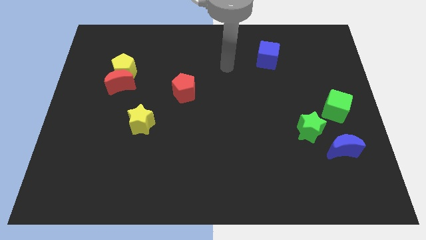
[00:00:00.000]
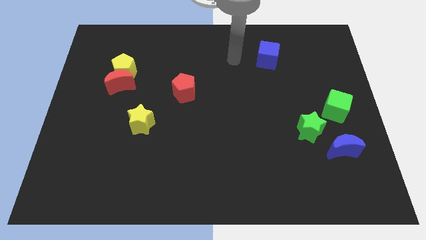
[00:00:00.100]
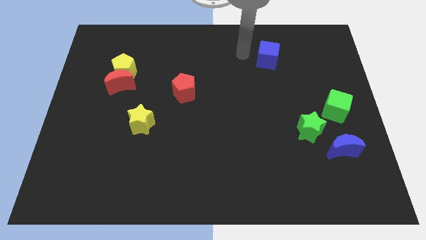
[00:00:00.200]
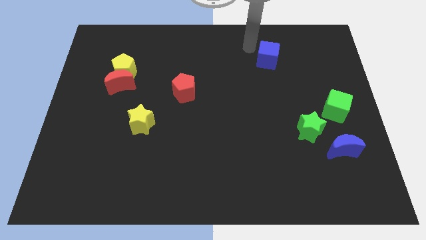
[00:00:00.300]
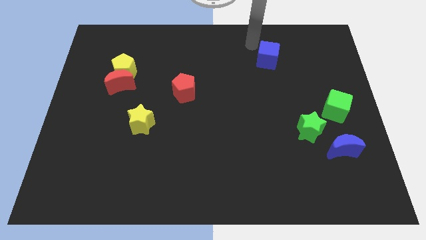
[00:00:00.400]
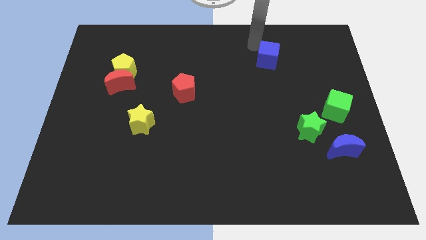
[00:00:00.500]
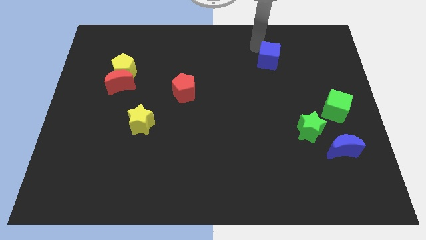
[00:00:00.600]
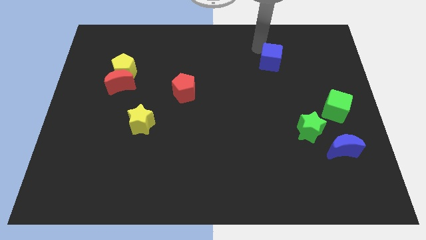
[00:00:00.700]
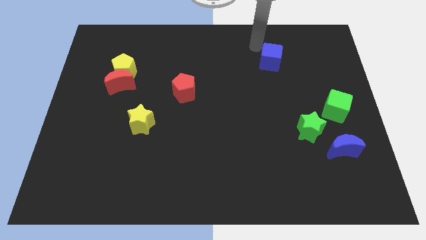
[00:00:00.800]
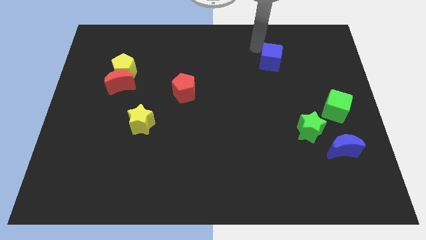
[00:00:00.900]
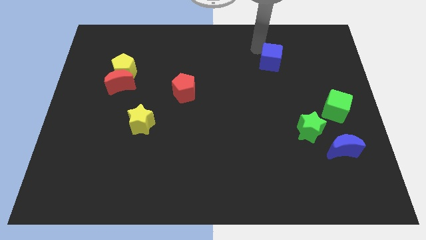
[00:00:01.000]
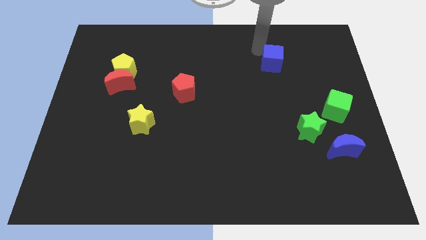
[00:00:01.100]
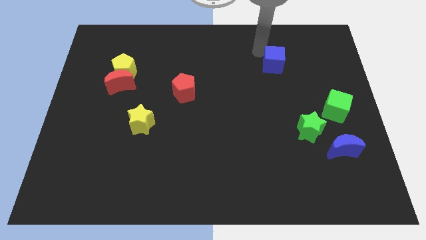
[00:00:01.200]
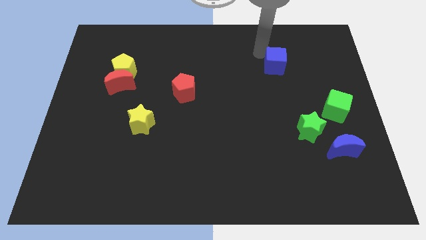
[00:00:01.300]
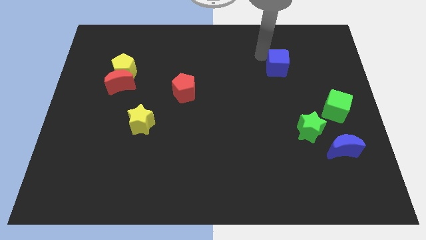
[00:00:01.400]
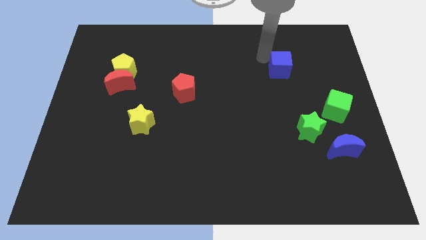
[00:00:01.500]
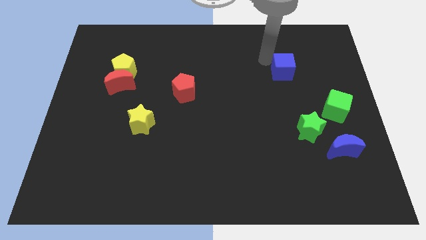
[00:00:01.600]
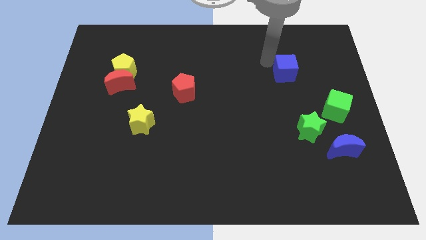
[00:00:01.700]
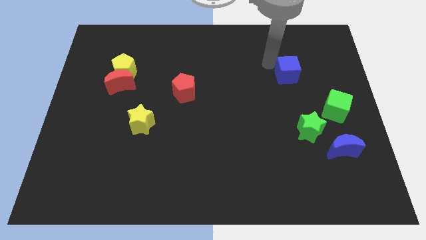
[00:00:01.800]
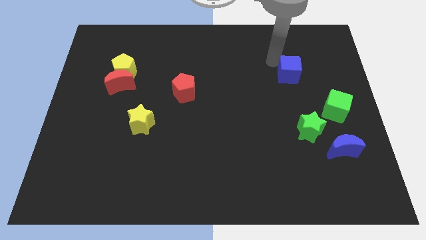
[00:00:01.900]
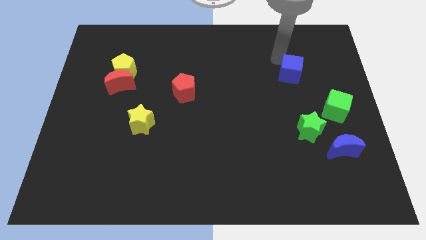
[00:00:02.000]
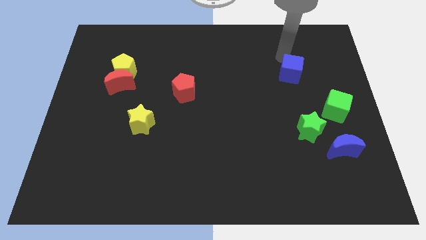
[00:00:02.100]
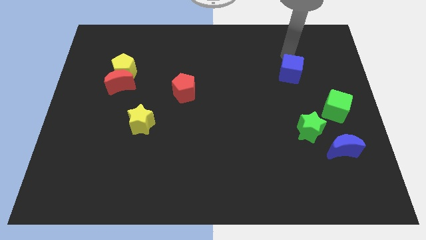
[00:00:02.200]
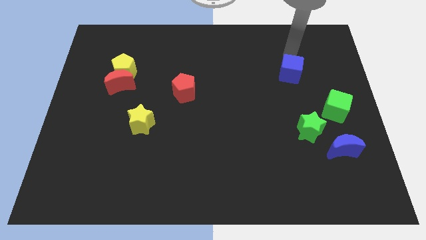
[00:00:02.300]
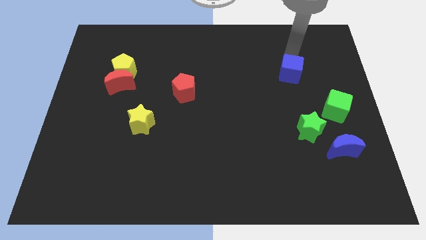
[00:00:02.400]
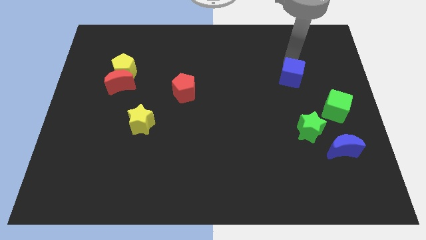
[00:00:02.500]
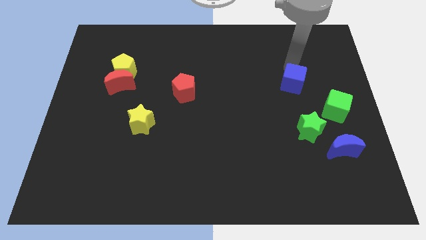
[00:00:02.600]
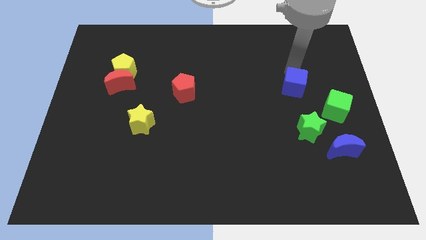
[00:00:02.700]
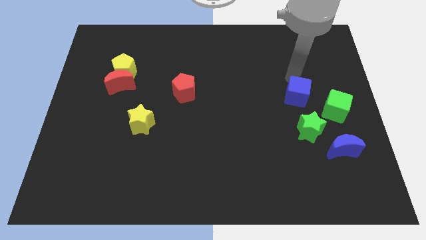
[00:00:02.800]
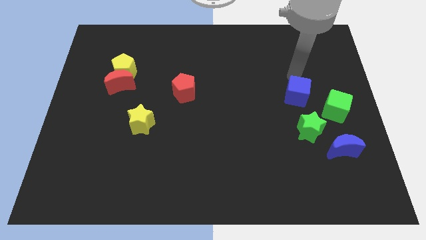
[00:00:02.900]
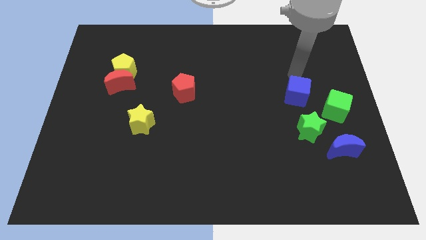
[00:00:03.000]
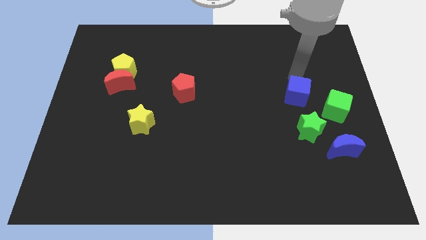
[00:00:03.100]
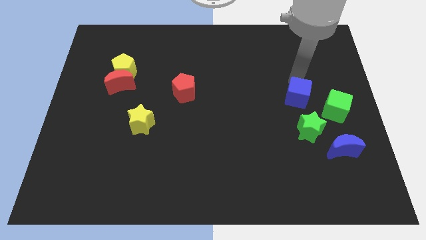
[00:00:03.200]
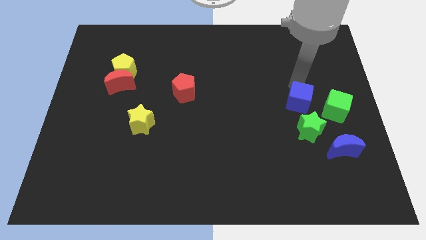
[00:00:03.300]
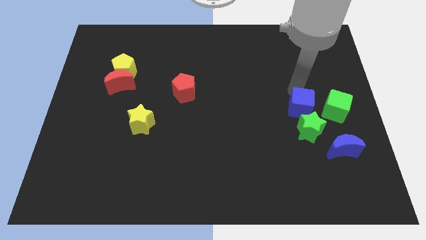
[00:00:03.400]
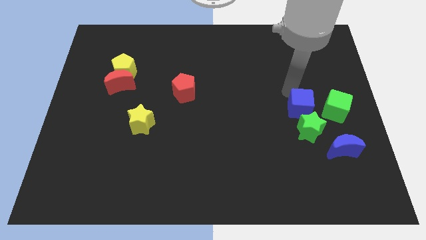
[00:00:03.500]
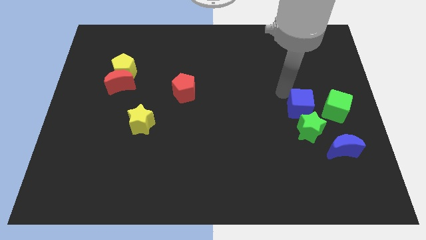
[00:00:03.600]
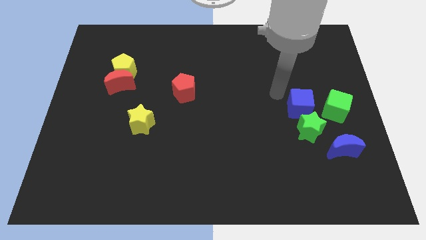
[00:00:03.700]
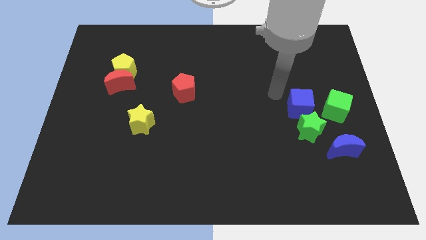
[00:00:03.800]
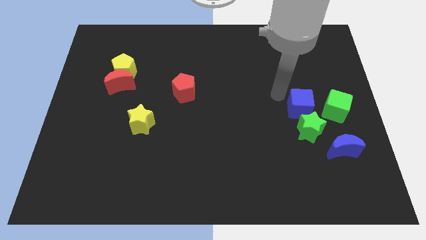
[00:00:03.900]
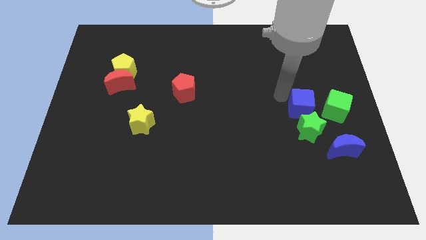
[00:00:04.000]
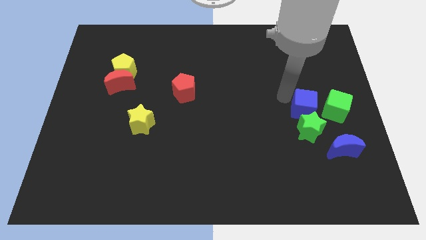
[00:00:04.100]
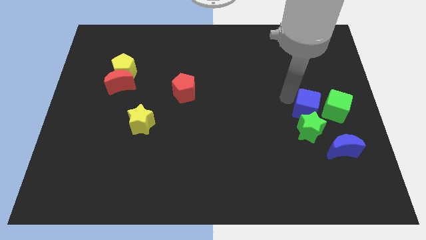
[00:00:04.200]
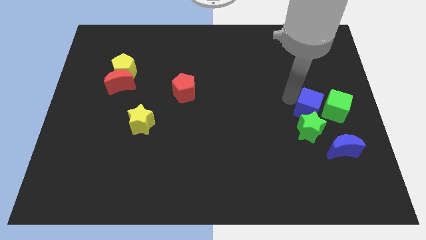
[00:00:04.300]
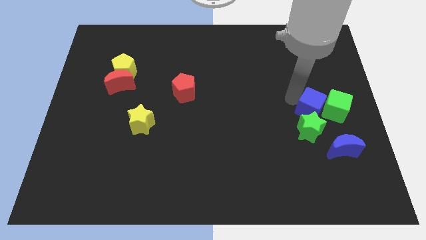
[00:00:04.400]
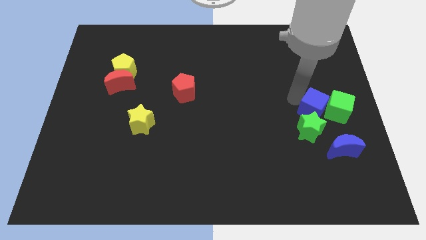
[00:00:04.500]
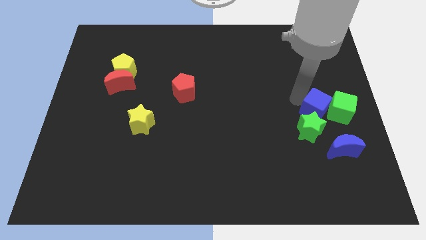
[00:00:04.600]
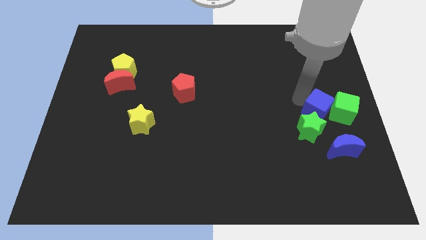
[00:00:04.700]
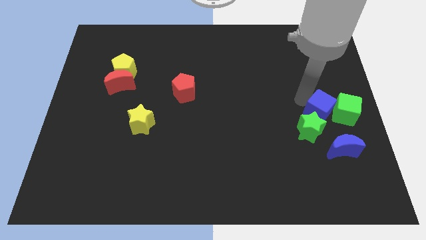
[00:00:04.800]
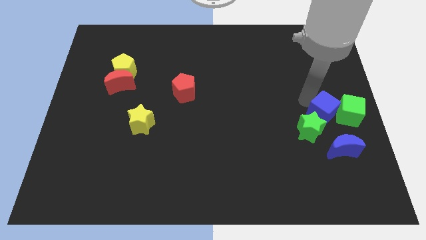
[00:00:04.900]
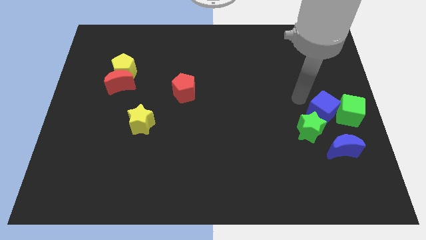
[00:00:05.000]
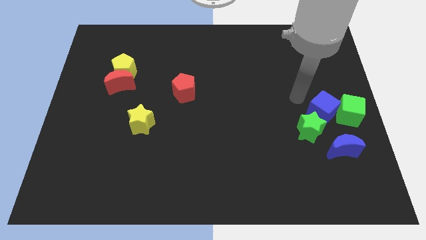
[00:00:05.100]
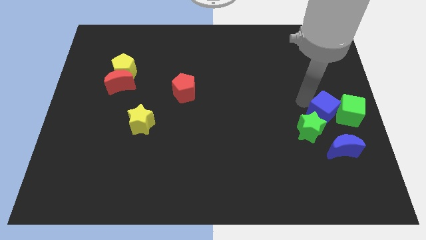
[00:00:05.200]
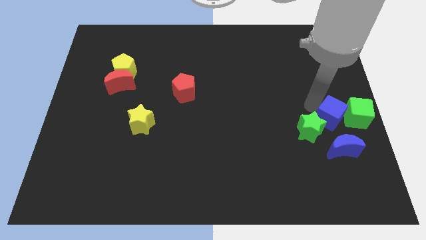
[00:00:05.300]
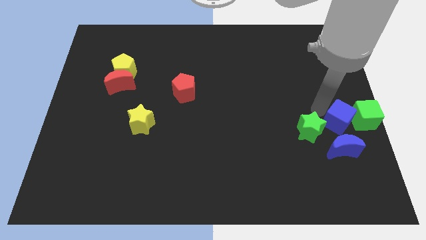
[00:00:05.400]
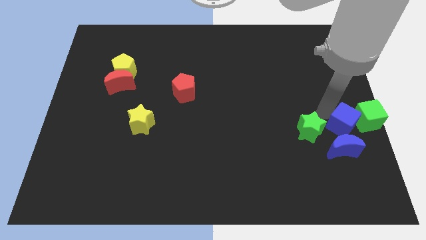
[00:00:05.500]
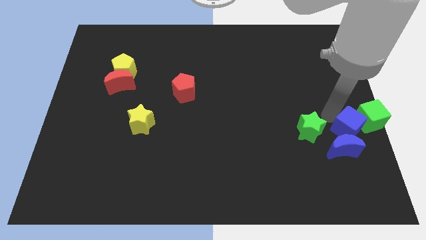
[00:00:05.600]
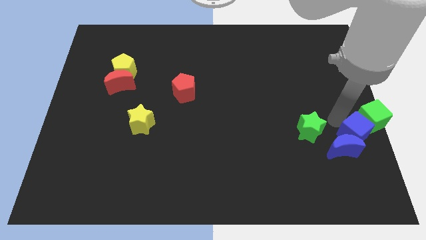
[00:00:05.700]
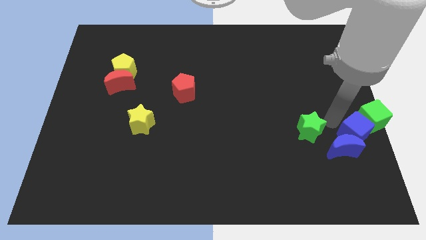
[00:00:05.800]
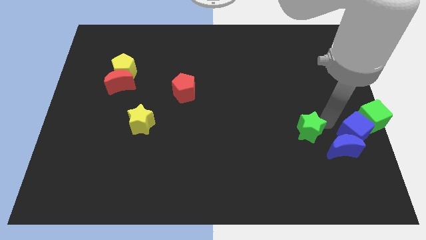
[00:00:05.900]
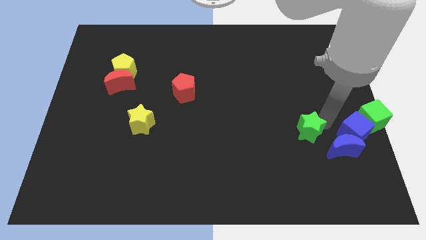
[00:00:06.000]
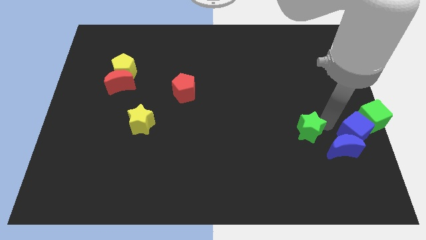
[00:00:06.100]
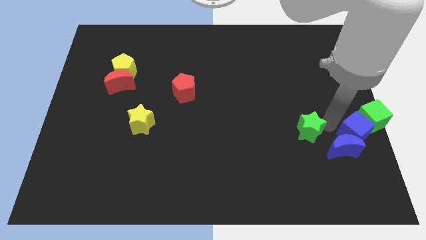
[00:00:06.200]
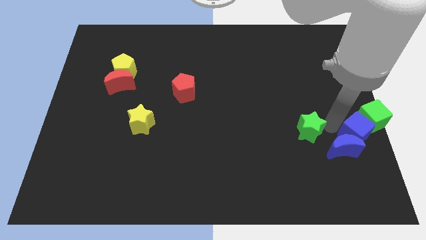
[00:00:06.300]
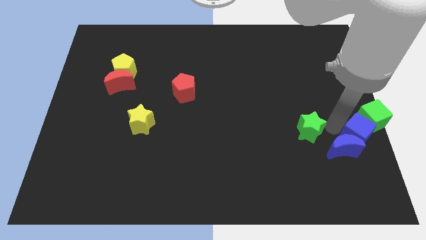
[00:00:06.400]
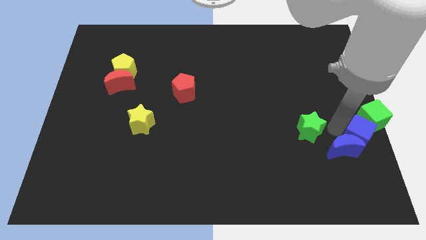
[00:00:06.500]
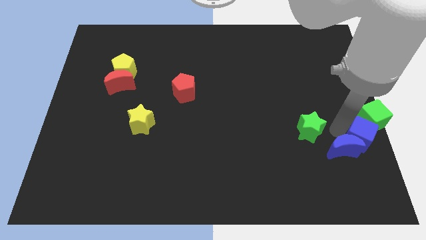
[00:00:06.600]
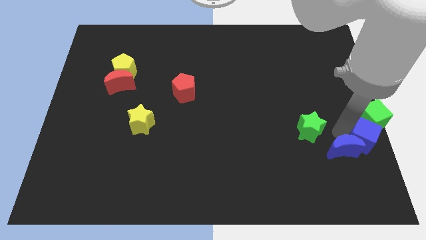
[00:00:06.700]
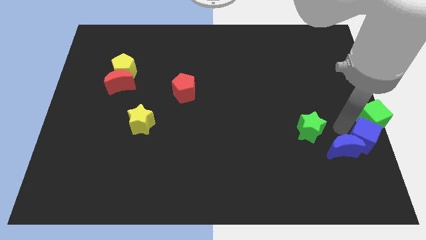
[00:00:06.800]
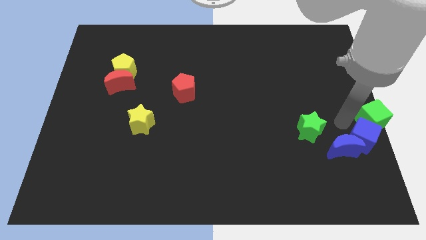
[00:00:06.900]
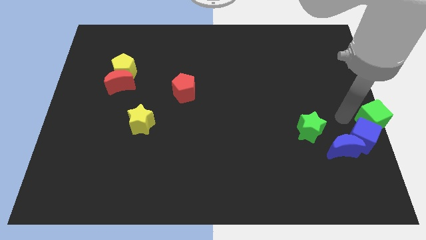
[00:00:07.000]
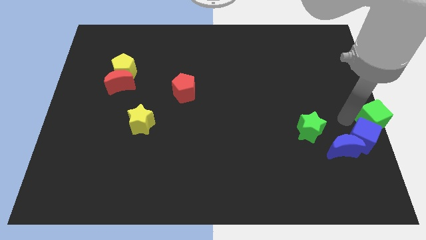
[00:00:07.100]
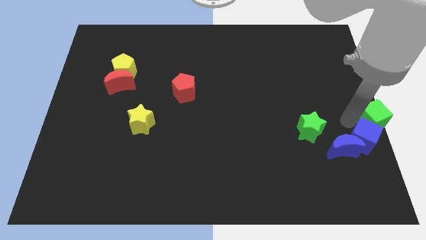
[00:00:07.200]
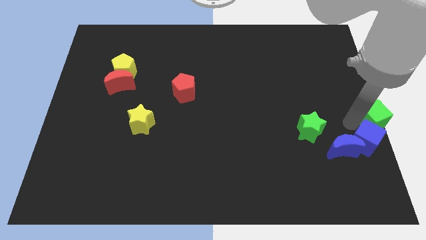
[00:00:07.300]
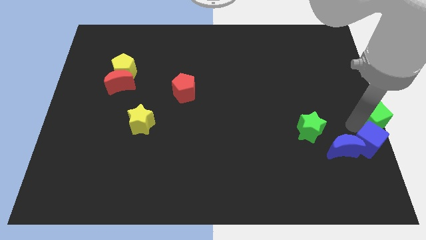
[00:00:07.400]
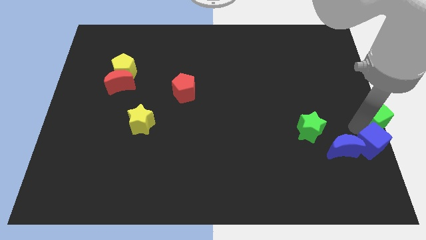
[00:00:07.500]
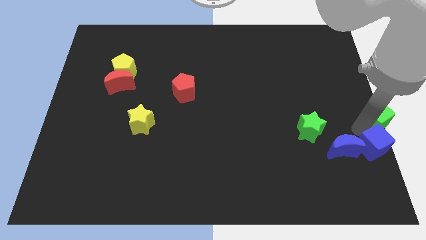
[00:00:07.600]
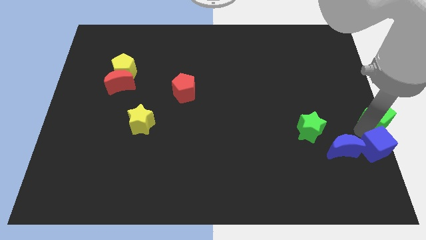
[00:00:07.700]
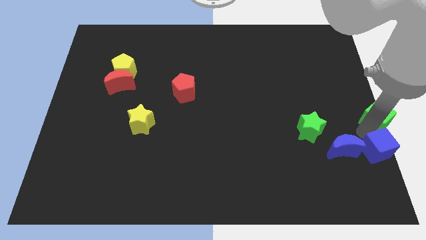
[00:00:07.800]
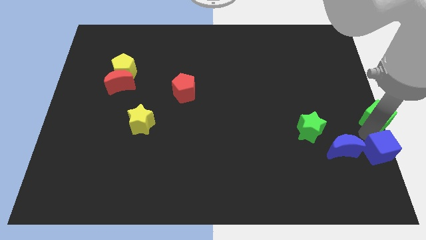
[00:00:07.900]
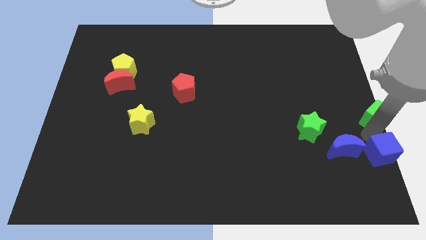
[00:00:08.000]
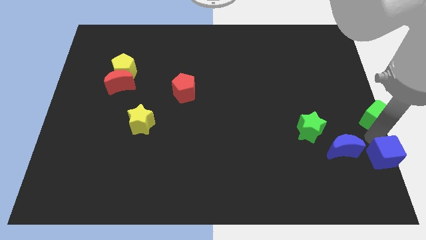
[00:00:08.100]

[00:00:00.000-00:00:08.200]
push the blue cube to the bottom right
